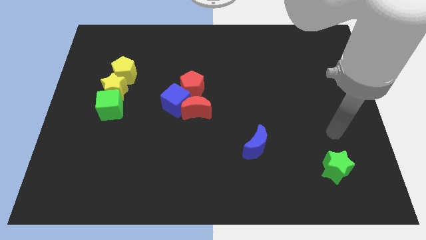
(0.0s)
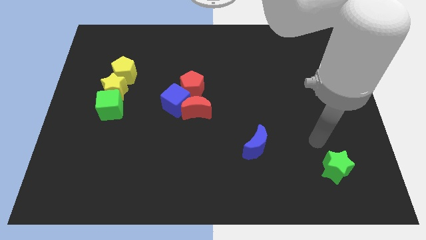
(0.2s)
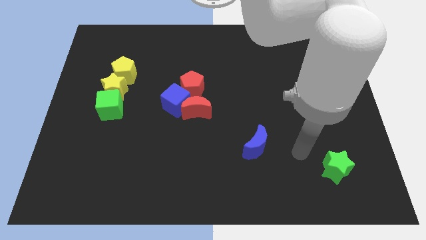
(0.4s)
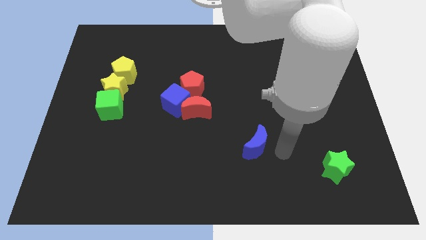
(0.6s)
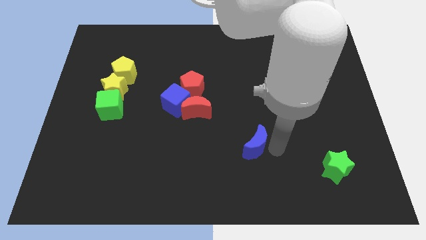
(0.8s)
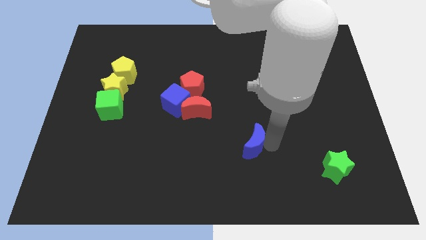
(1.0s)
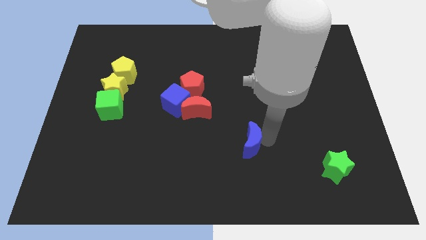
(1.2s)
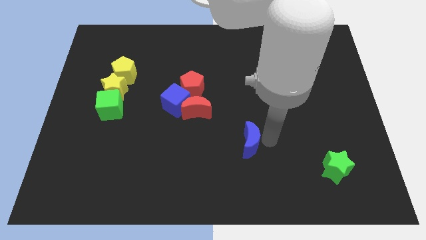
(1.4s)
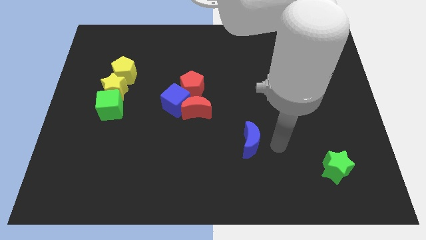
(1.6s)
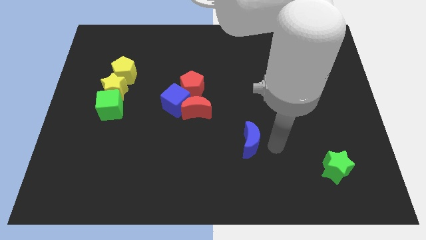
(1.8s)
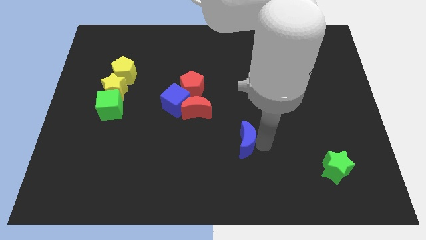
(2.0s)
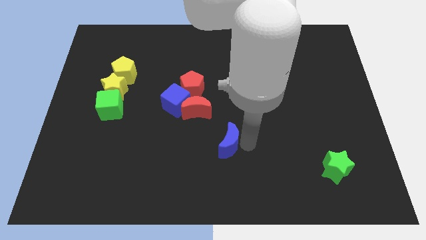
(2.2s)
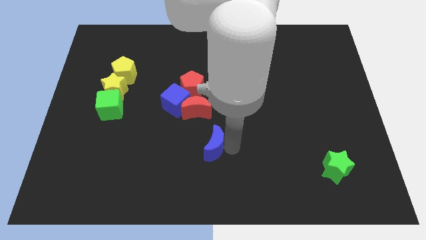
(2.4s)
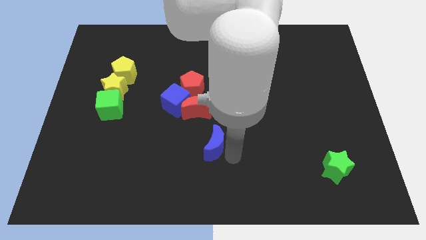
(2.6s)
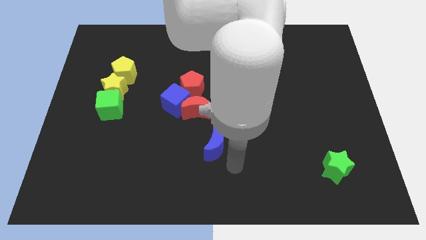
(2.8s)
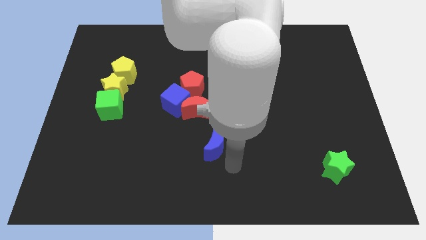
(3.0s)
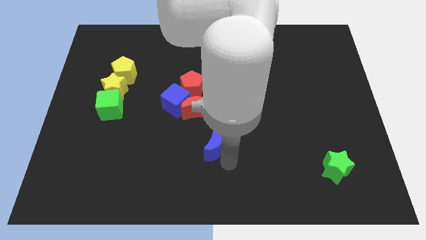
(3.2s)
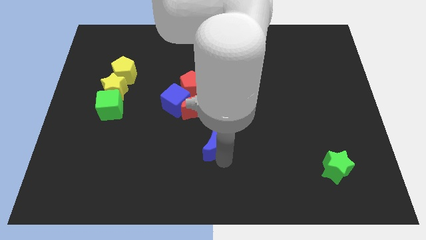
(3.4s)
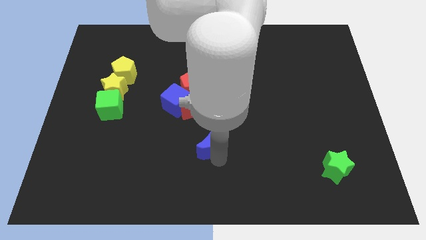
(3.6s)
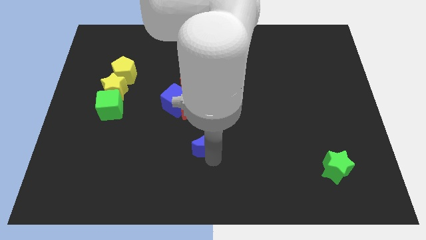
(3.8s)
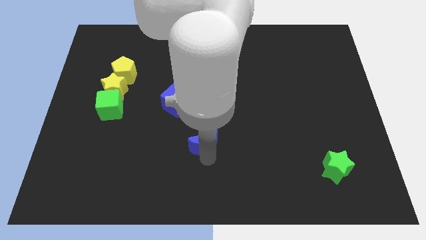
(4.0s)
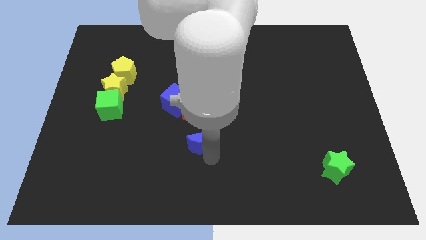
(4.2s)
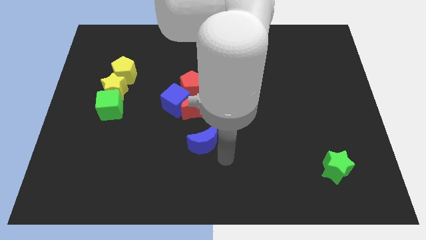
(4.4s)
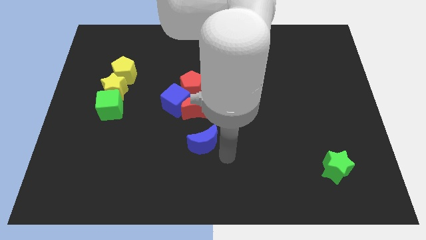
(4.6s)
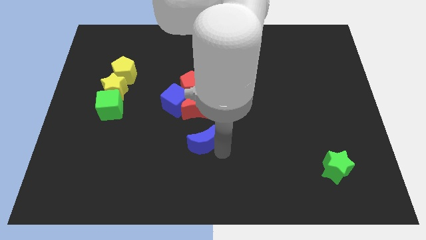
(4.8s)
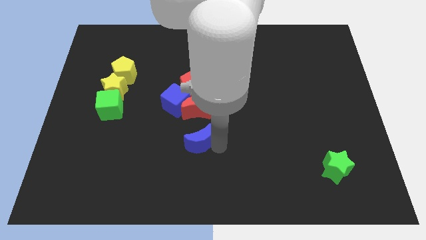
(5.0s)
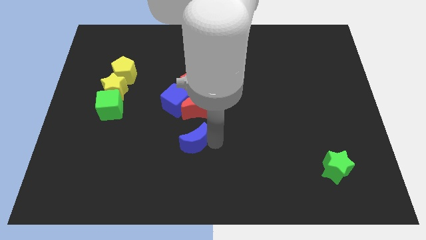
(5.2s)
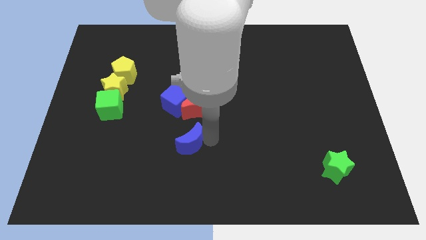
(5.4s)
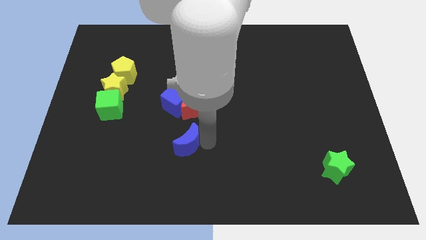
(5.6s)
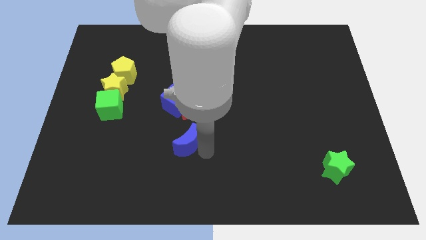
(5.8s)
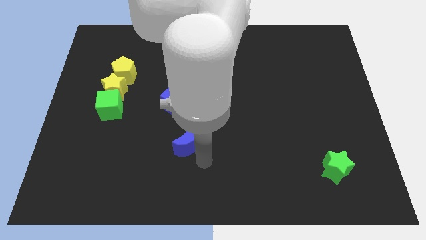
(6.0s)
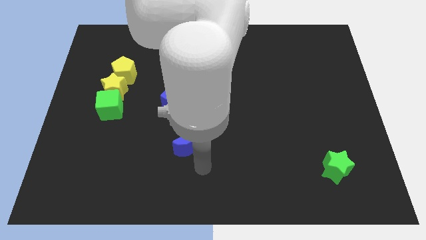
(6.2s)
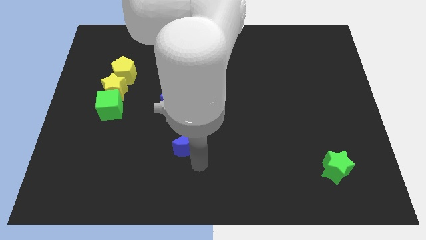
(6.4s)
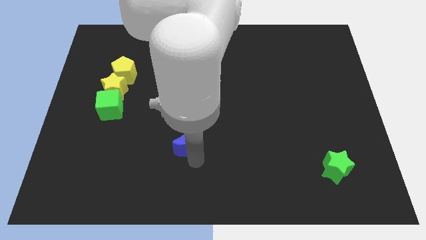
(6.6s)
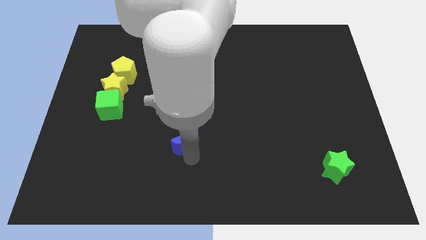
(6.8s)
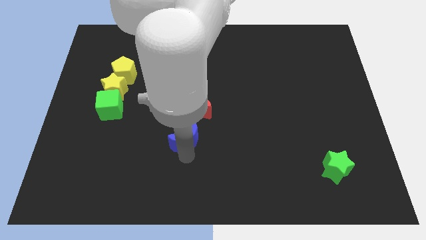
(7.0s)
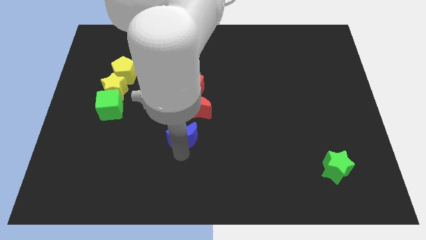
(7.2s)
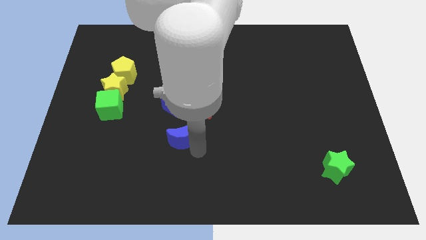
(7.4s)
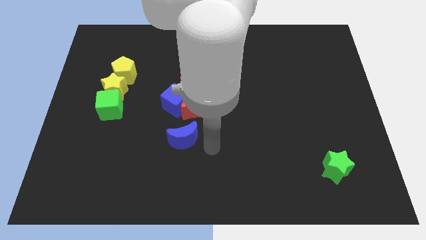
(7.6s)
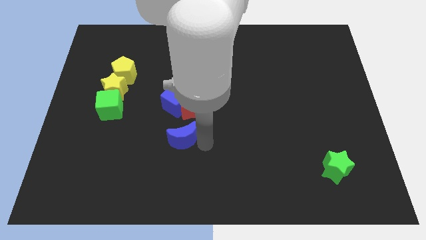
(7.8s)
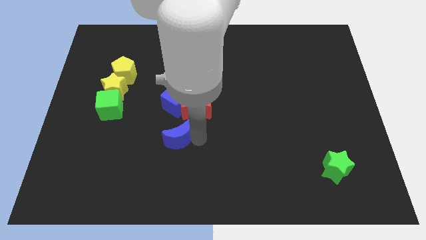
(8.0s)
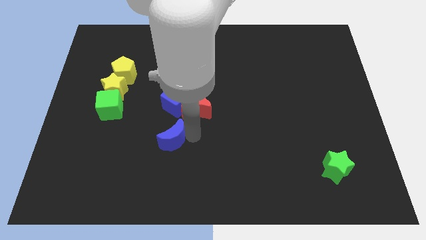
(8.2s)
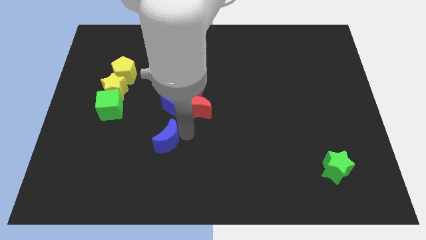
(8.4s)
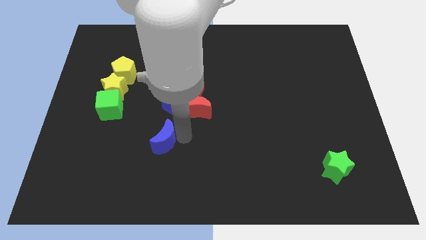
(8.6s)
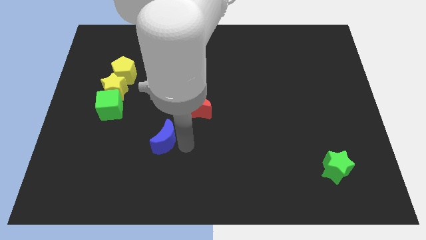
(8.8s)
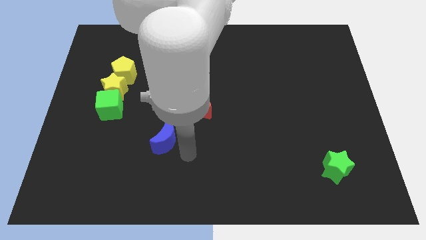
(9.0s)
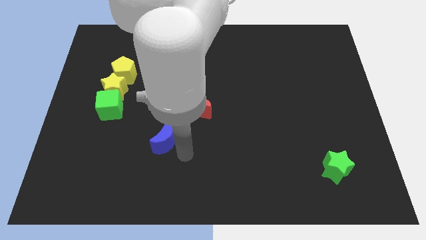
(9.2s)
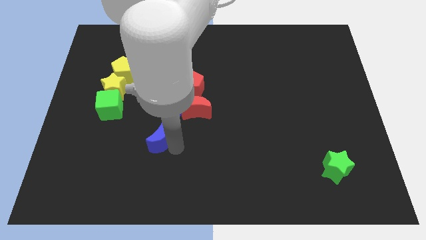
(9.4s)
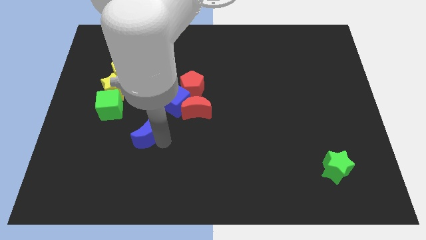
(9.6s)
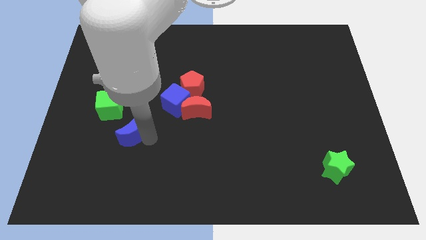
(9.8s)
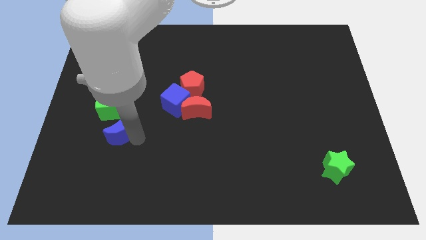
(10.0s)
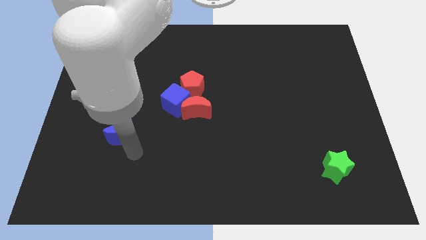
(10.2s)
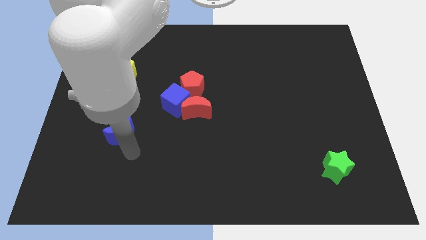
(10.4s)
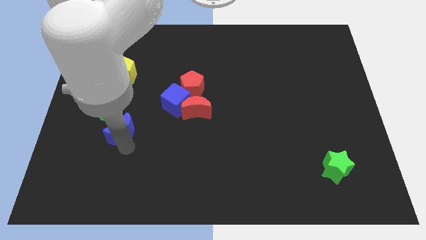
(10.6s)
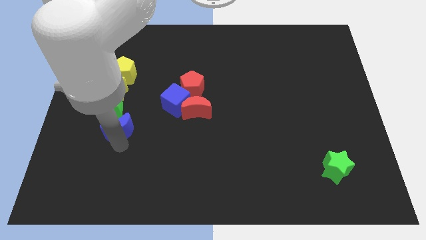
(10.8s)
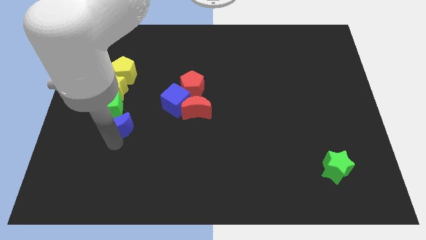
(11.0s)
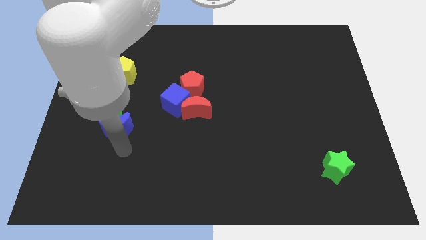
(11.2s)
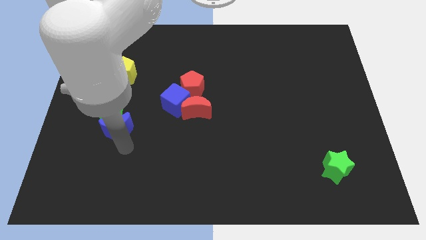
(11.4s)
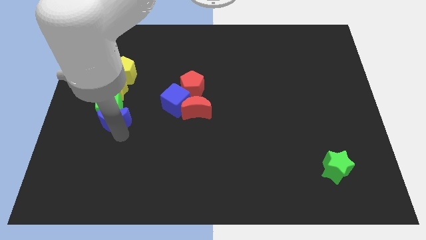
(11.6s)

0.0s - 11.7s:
put the blue moon to the green cube

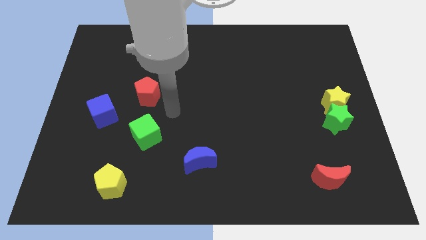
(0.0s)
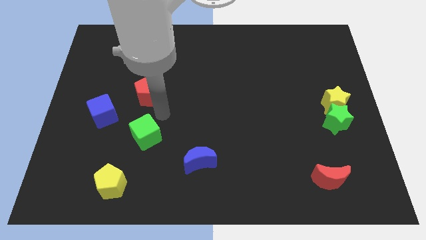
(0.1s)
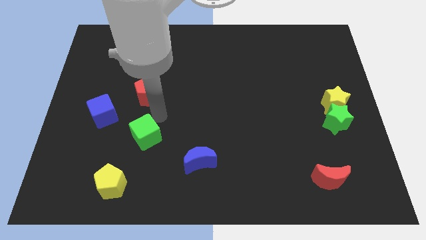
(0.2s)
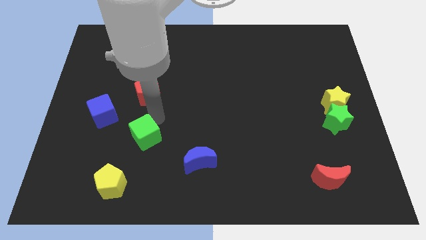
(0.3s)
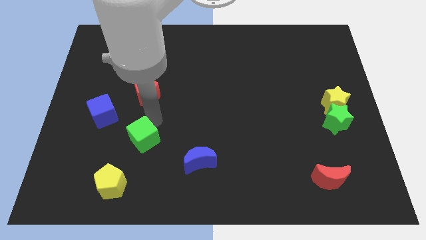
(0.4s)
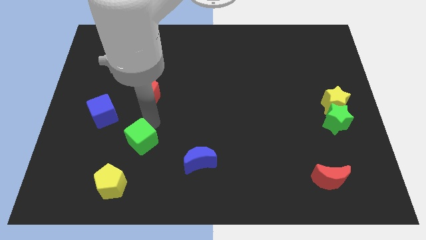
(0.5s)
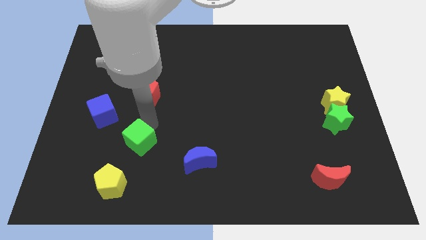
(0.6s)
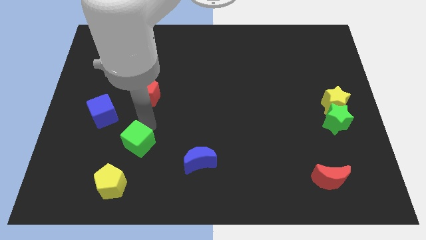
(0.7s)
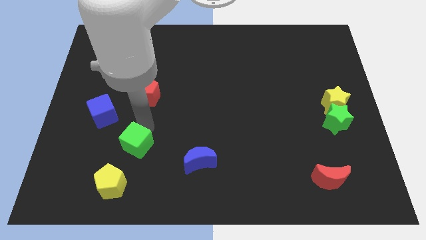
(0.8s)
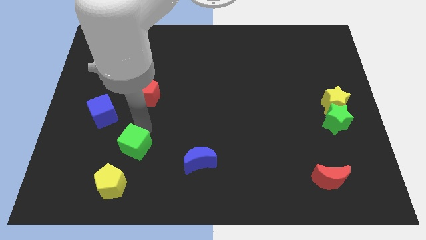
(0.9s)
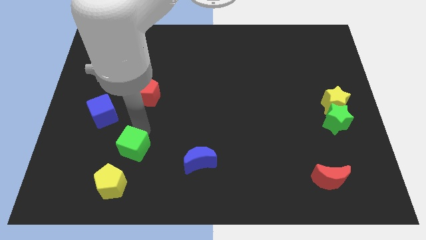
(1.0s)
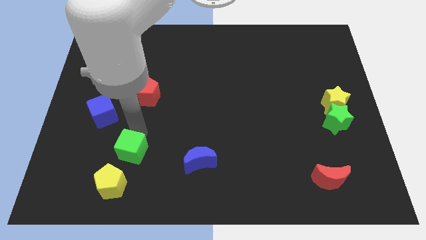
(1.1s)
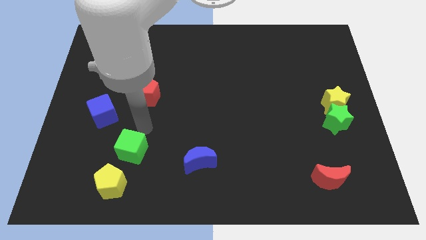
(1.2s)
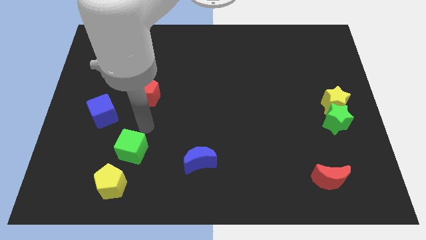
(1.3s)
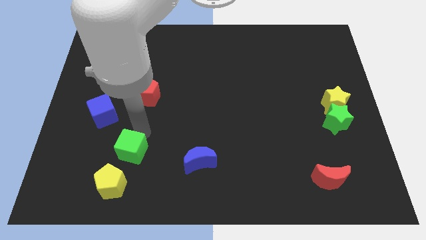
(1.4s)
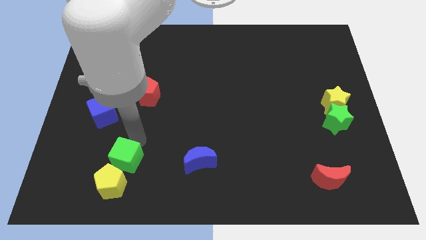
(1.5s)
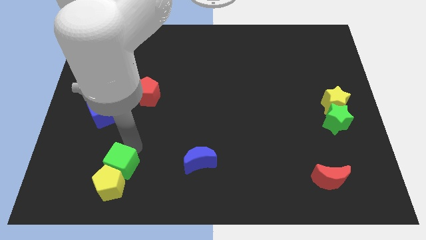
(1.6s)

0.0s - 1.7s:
put the green cube to the yellow pentagon
